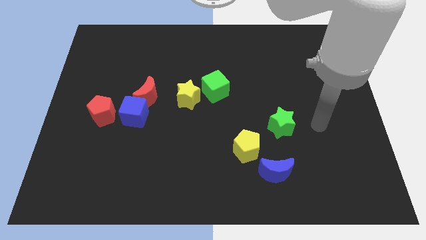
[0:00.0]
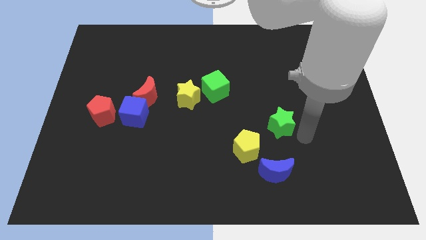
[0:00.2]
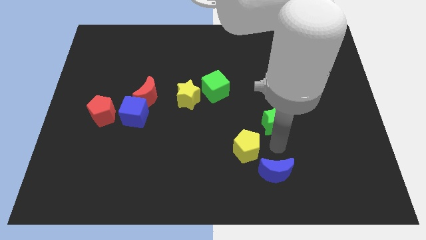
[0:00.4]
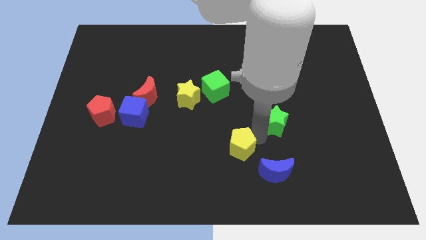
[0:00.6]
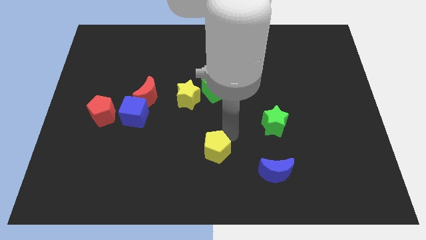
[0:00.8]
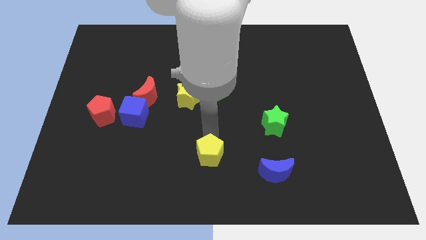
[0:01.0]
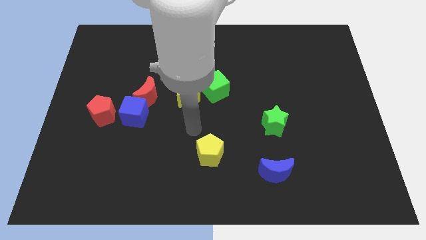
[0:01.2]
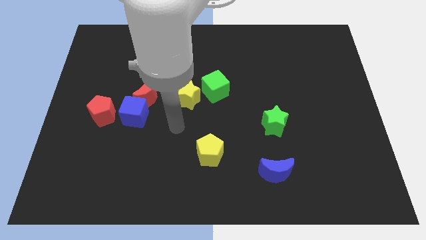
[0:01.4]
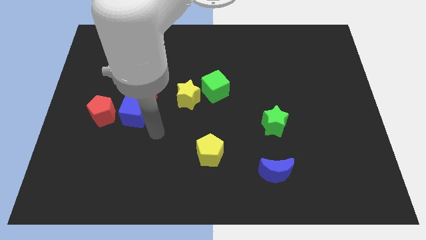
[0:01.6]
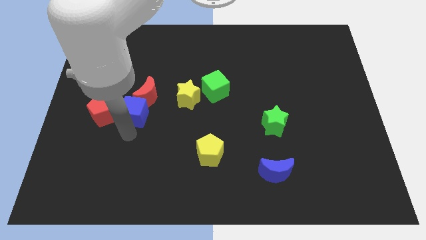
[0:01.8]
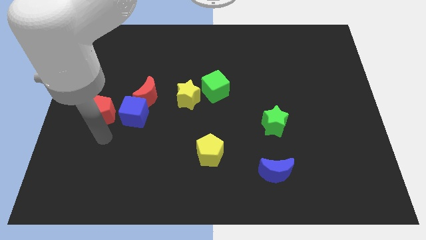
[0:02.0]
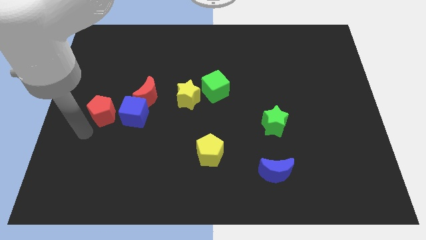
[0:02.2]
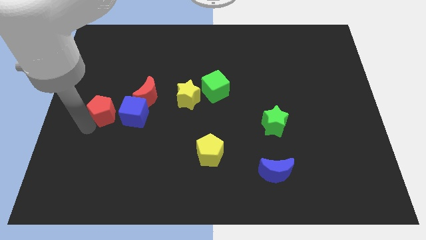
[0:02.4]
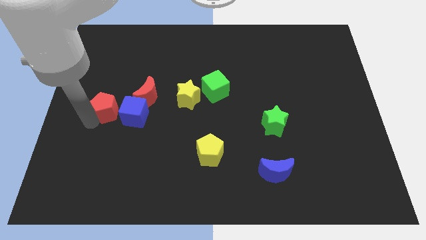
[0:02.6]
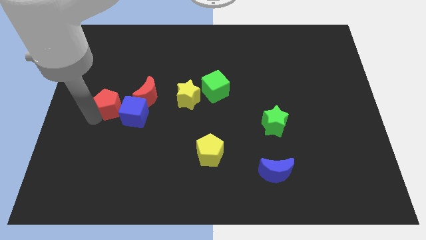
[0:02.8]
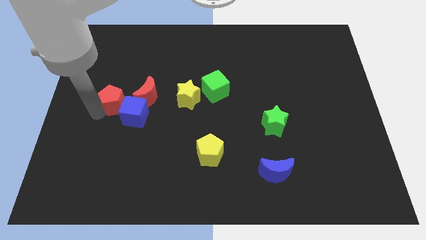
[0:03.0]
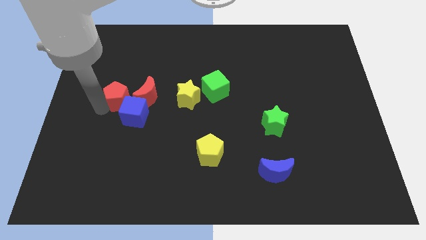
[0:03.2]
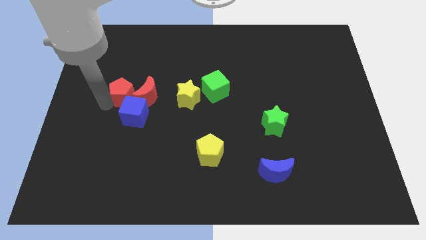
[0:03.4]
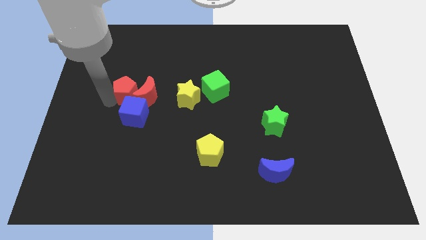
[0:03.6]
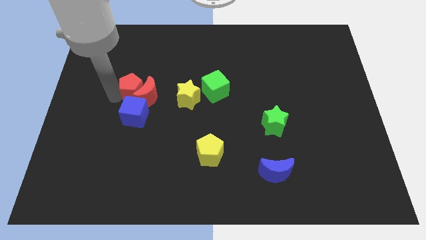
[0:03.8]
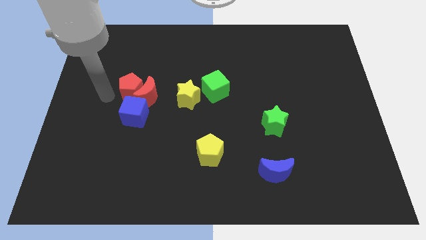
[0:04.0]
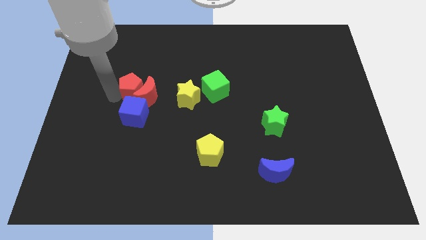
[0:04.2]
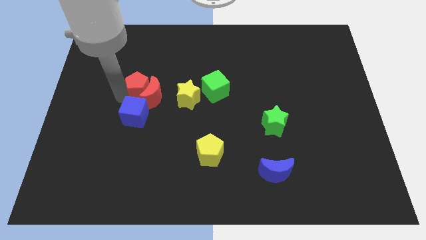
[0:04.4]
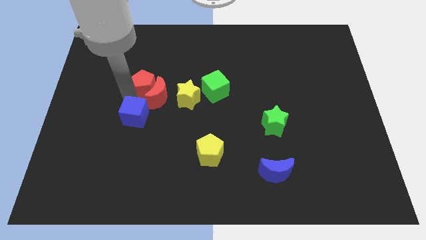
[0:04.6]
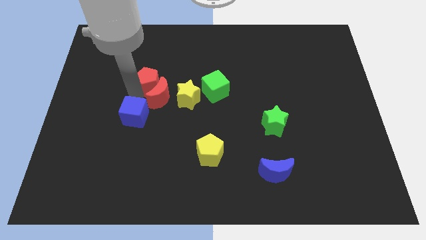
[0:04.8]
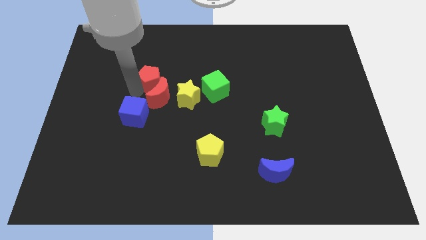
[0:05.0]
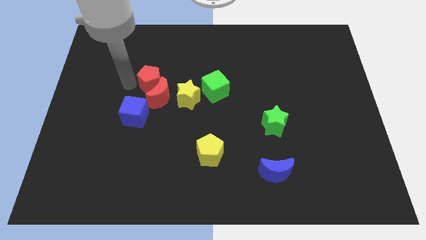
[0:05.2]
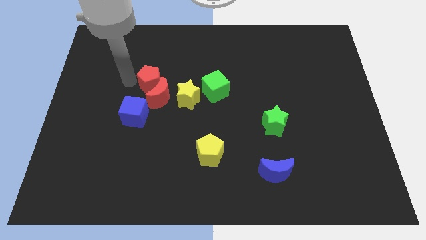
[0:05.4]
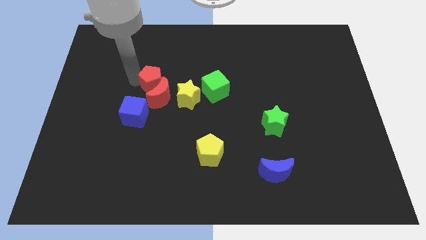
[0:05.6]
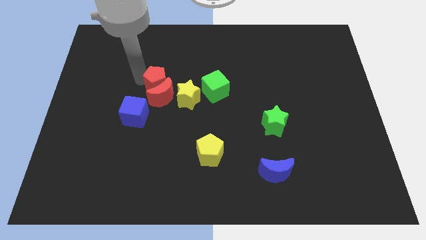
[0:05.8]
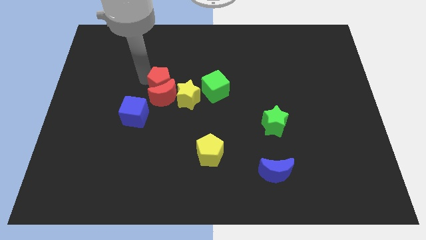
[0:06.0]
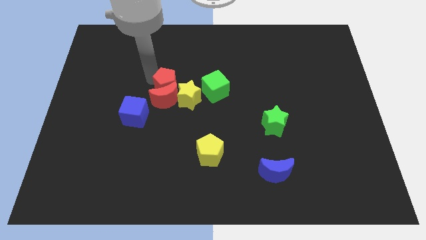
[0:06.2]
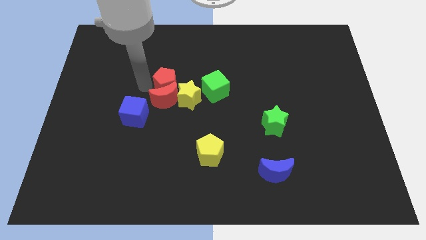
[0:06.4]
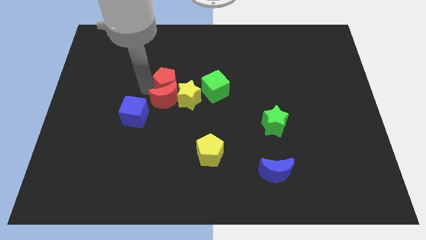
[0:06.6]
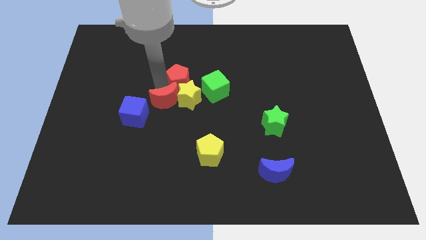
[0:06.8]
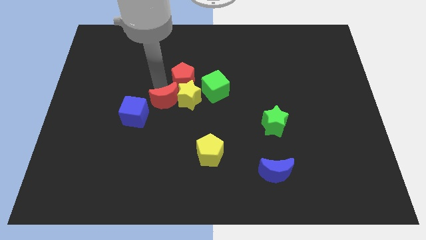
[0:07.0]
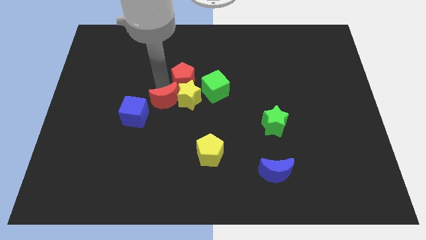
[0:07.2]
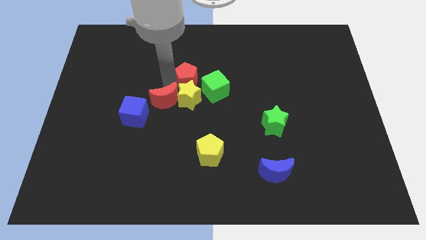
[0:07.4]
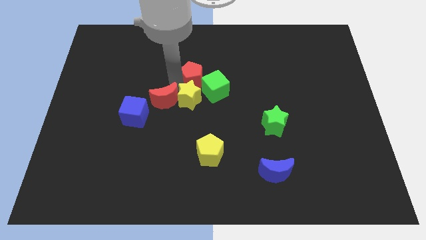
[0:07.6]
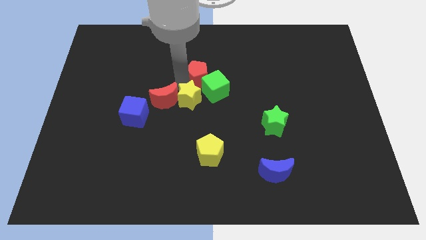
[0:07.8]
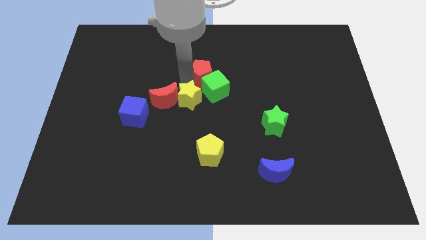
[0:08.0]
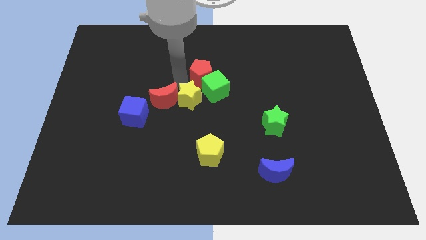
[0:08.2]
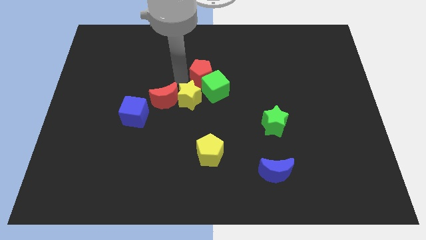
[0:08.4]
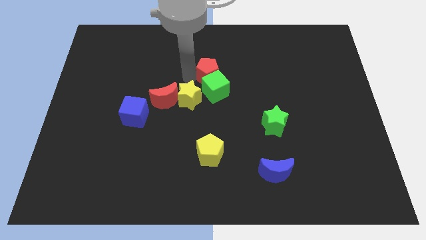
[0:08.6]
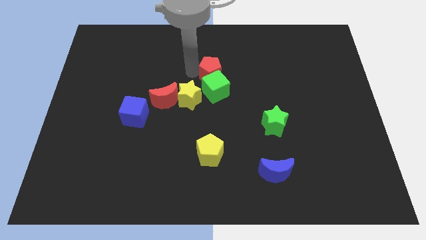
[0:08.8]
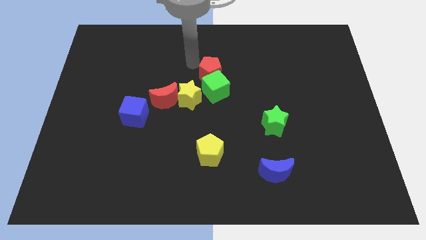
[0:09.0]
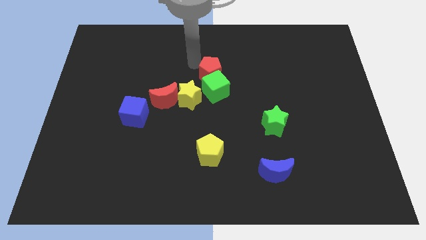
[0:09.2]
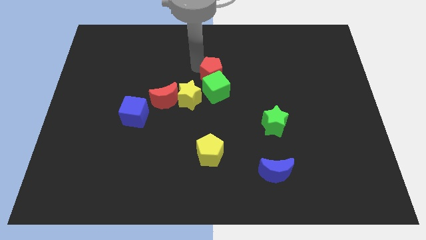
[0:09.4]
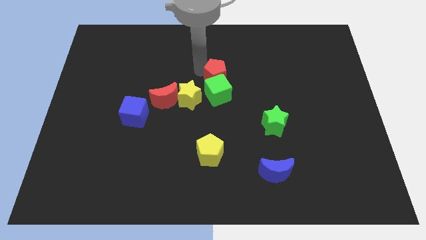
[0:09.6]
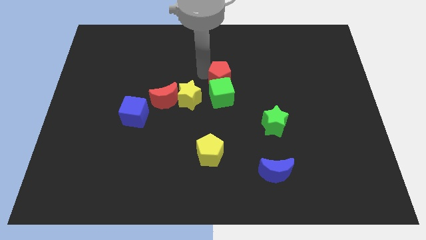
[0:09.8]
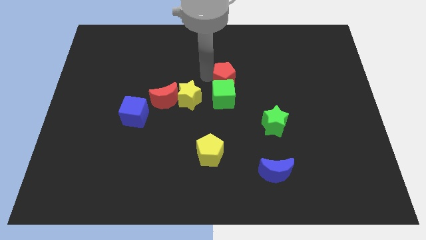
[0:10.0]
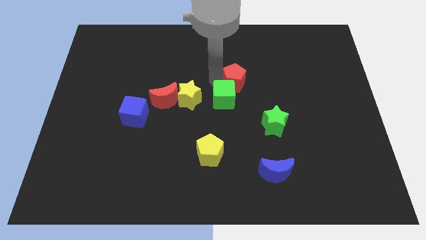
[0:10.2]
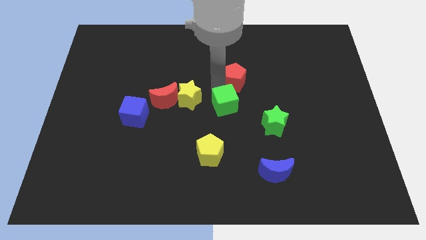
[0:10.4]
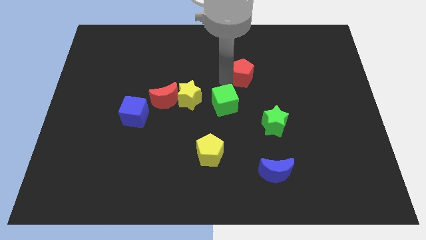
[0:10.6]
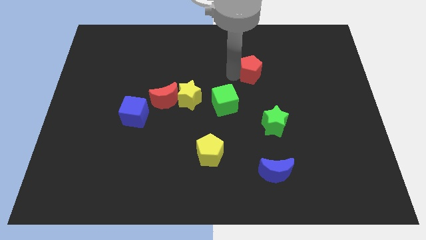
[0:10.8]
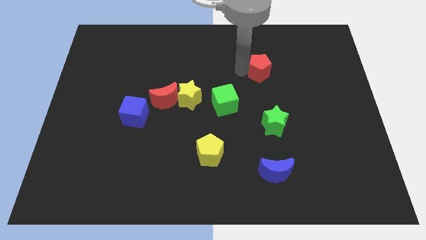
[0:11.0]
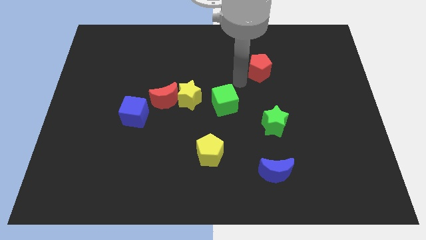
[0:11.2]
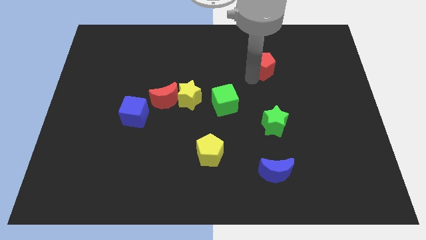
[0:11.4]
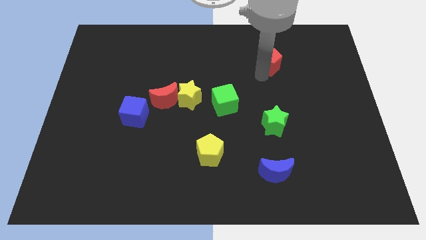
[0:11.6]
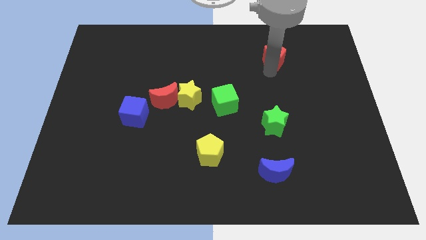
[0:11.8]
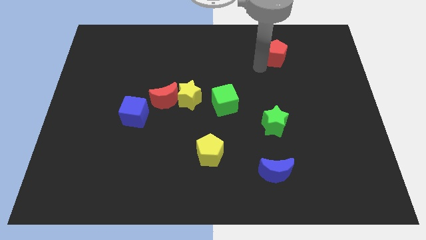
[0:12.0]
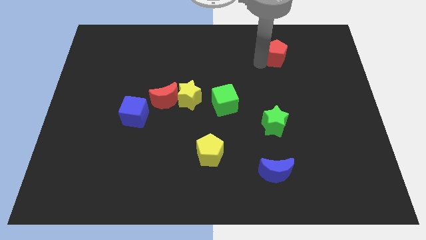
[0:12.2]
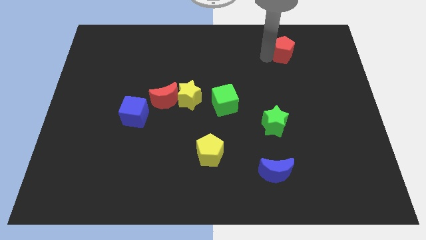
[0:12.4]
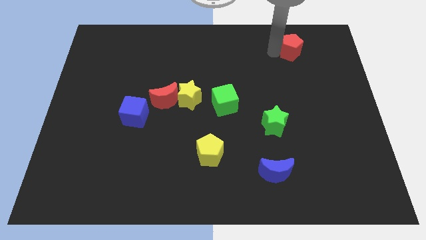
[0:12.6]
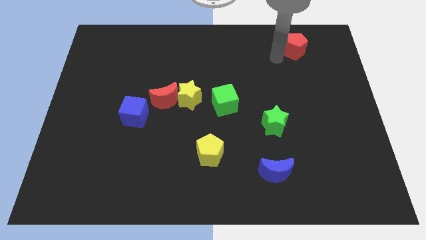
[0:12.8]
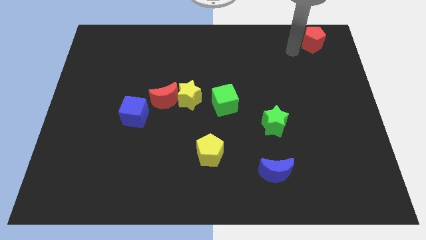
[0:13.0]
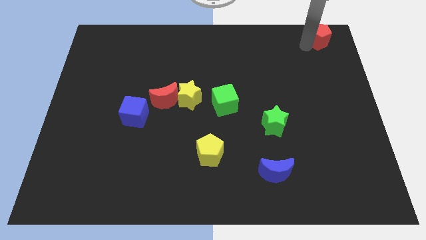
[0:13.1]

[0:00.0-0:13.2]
move the red pentagon to the top right
